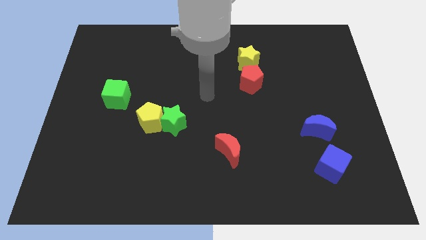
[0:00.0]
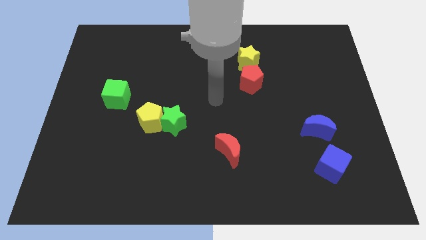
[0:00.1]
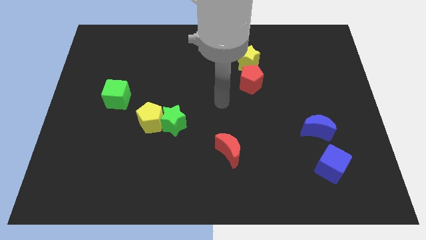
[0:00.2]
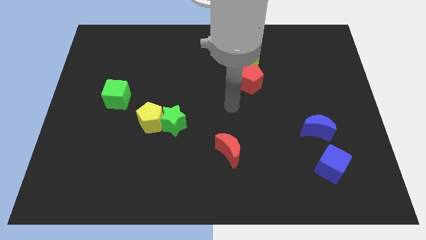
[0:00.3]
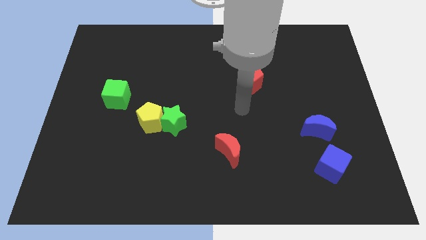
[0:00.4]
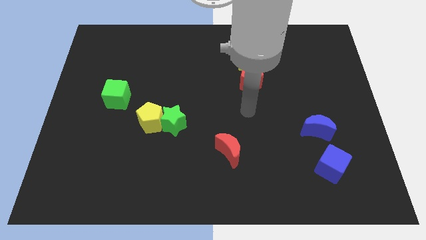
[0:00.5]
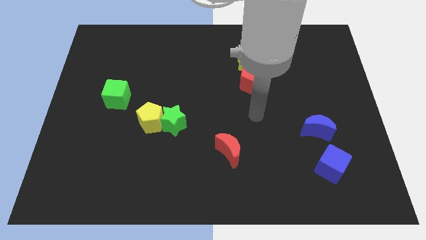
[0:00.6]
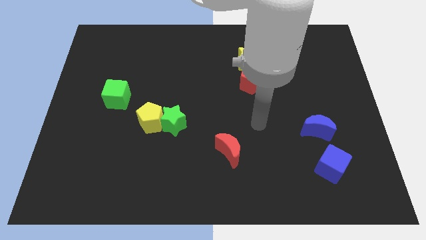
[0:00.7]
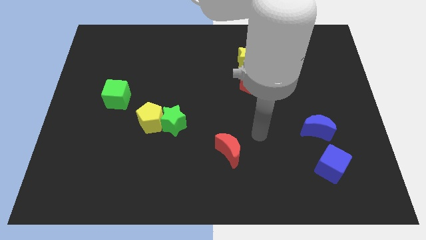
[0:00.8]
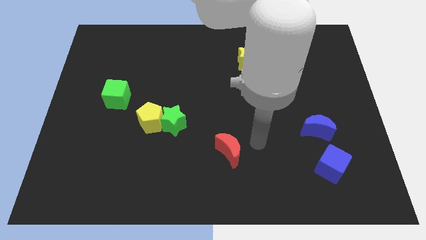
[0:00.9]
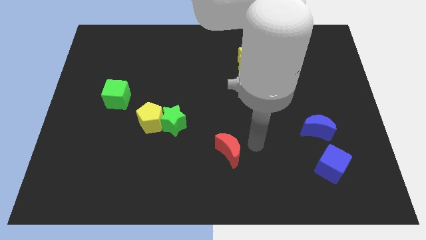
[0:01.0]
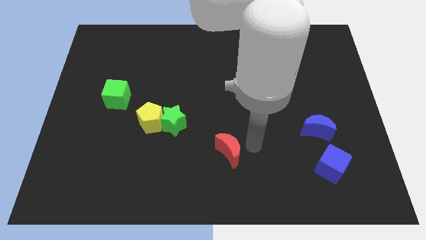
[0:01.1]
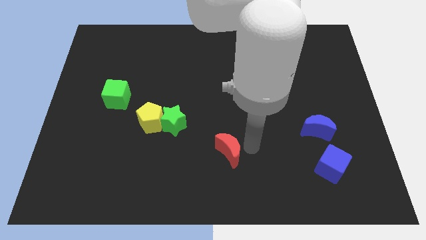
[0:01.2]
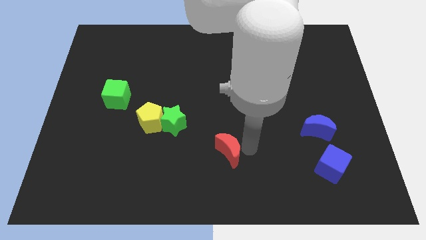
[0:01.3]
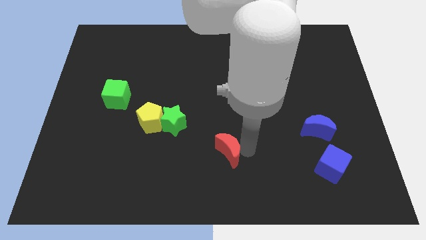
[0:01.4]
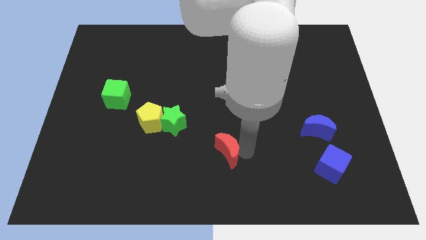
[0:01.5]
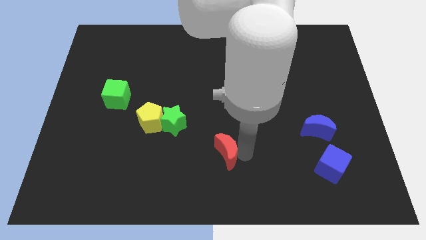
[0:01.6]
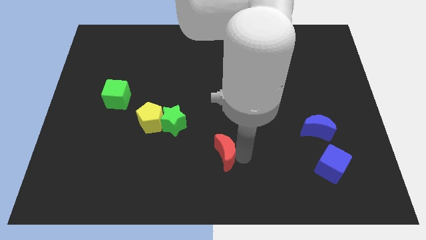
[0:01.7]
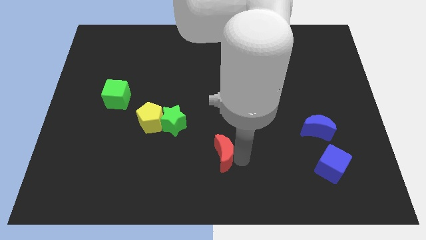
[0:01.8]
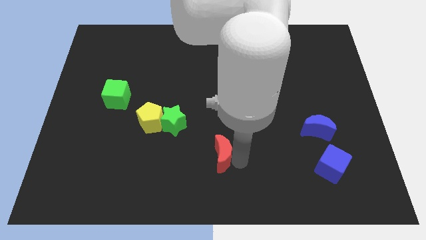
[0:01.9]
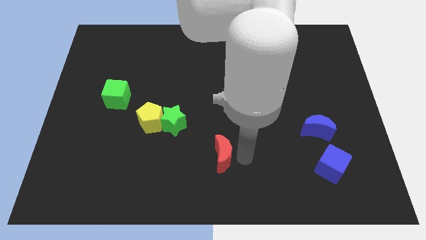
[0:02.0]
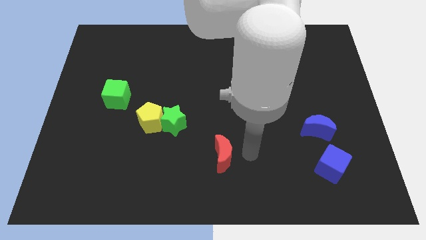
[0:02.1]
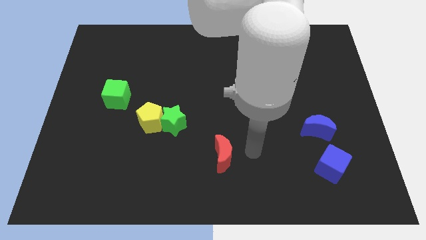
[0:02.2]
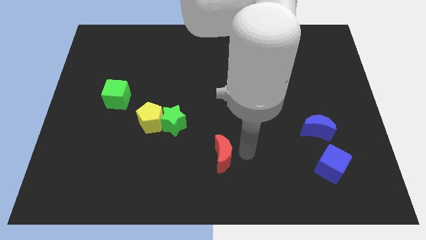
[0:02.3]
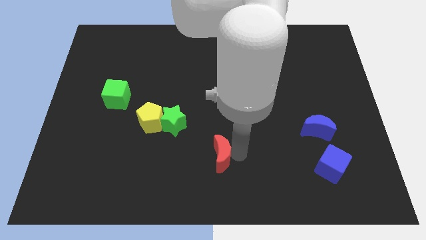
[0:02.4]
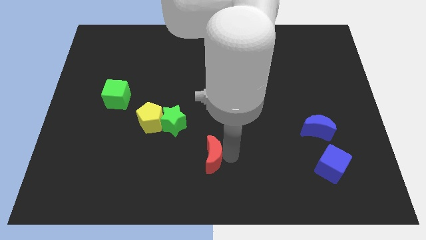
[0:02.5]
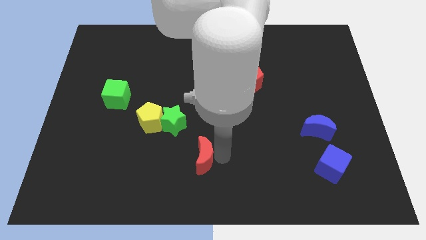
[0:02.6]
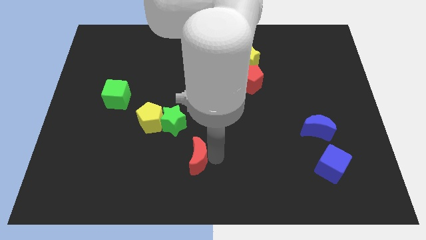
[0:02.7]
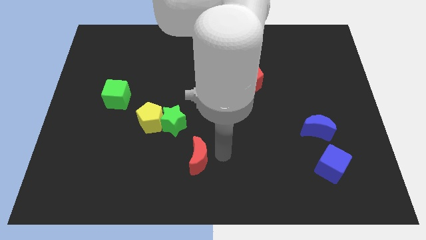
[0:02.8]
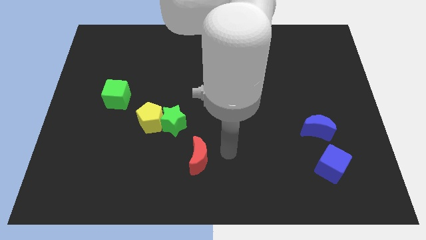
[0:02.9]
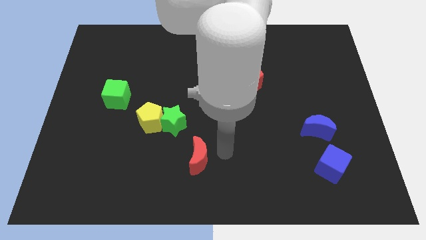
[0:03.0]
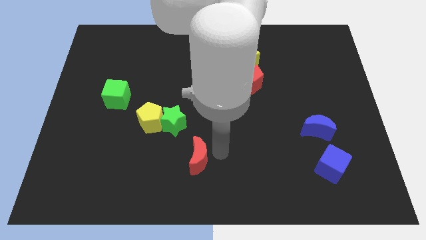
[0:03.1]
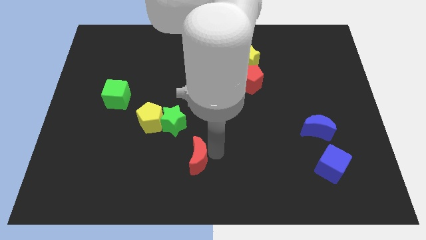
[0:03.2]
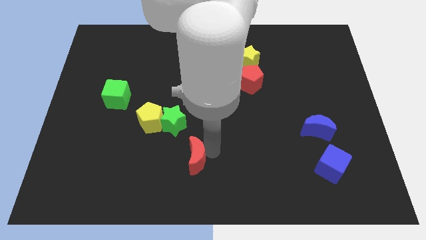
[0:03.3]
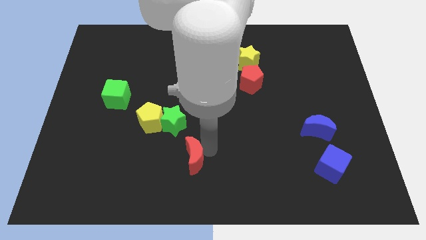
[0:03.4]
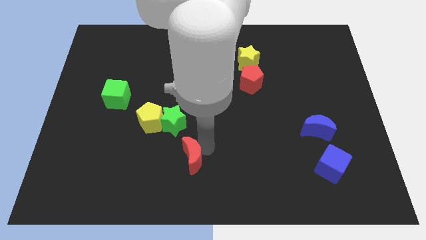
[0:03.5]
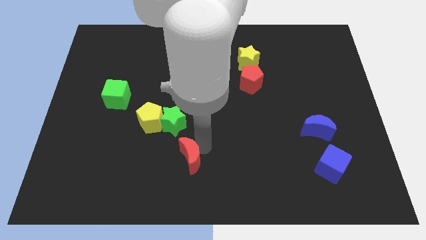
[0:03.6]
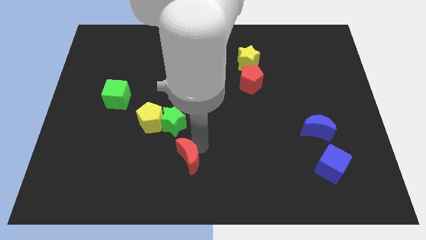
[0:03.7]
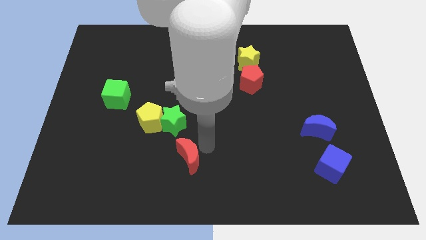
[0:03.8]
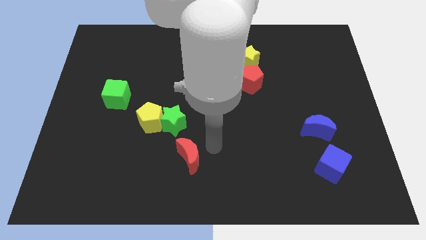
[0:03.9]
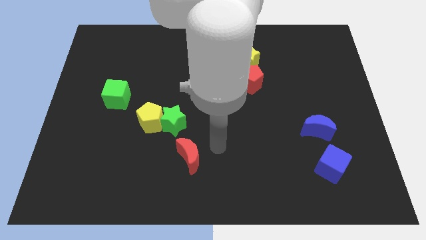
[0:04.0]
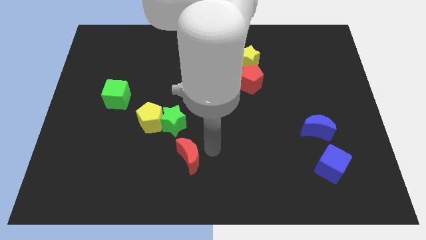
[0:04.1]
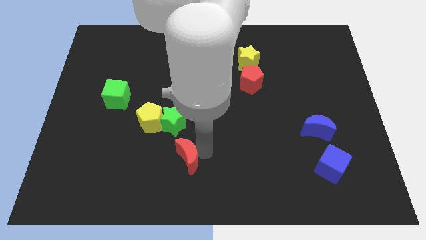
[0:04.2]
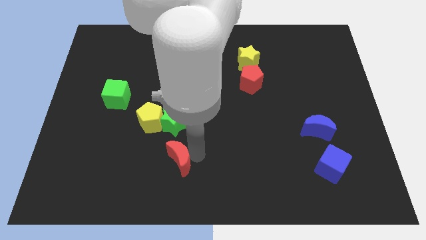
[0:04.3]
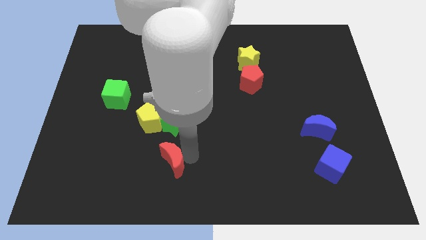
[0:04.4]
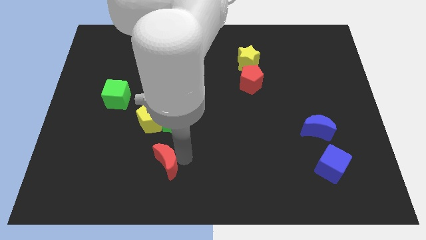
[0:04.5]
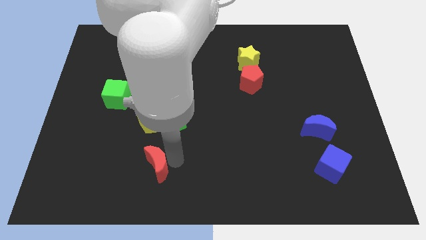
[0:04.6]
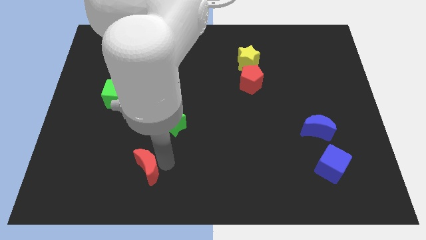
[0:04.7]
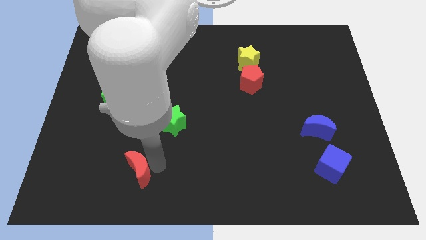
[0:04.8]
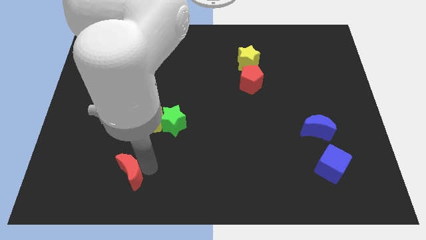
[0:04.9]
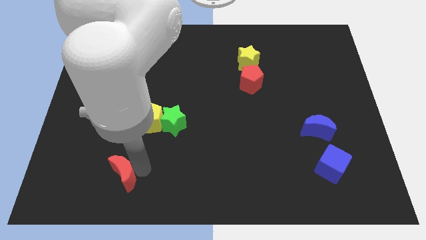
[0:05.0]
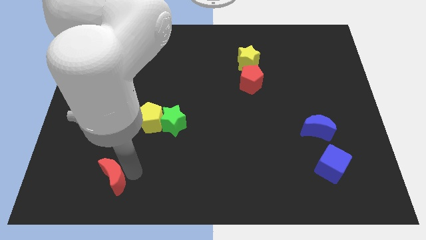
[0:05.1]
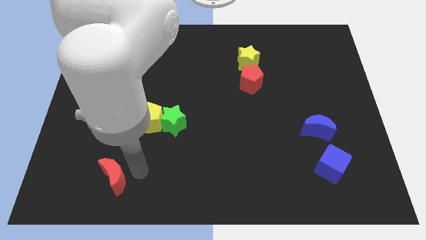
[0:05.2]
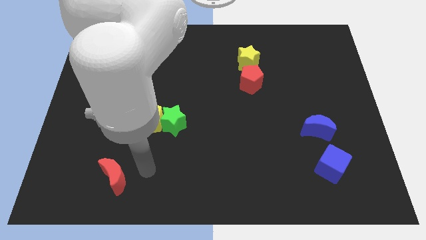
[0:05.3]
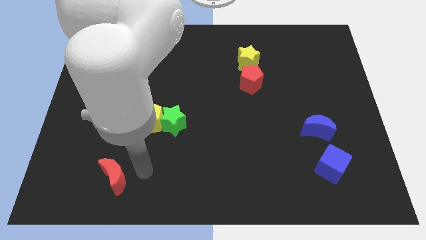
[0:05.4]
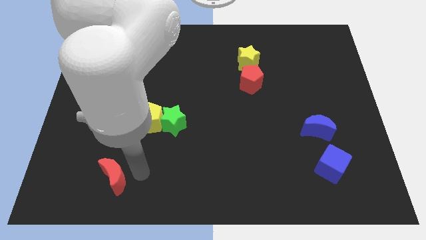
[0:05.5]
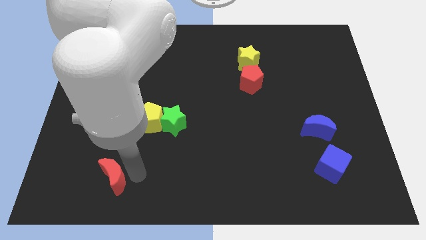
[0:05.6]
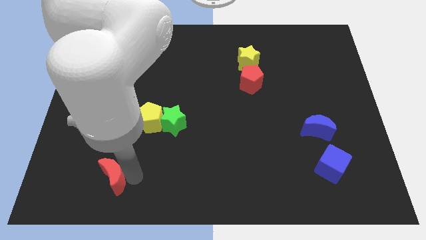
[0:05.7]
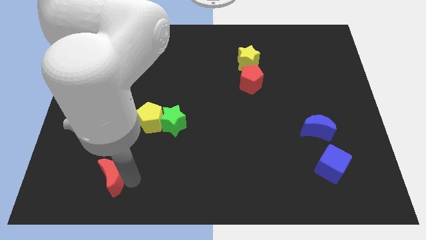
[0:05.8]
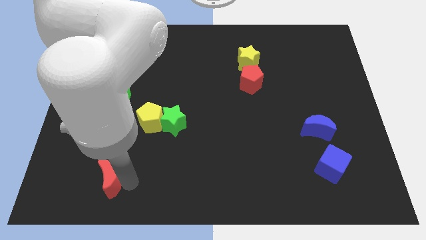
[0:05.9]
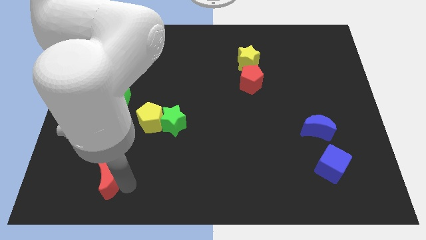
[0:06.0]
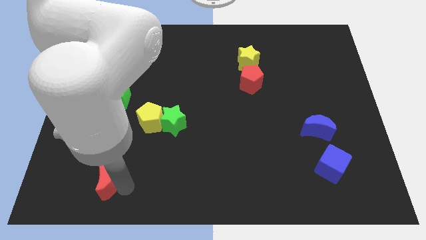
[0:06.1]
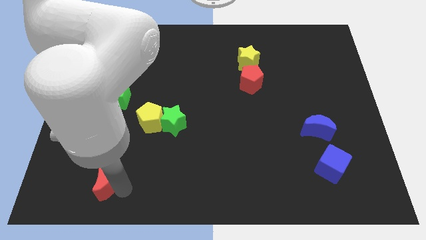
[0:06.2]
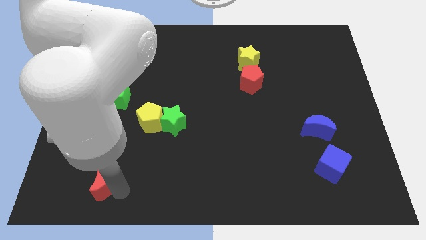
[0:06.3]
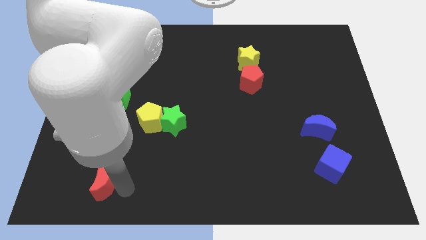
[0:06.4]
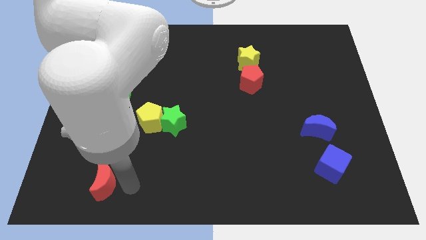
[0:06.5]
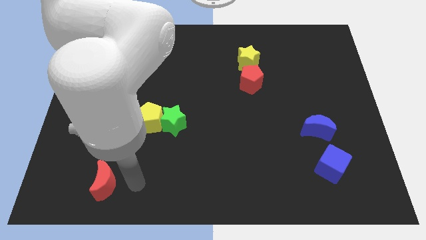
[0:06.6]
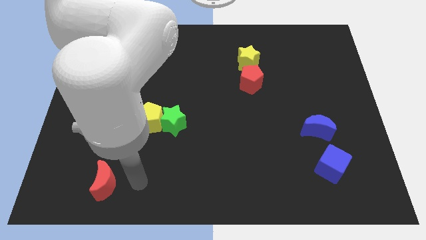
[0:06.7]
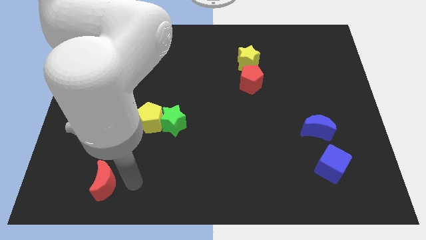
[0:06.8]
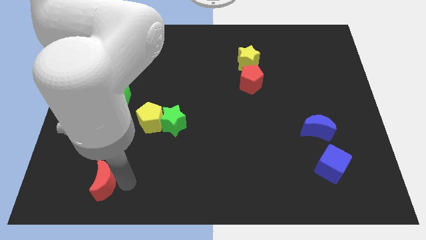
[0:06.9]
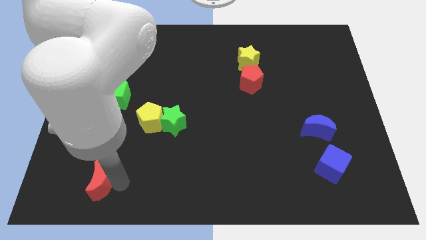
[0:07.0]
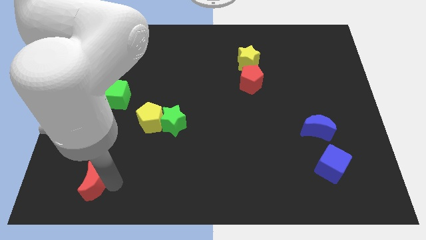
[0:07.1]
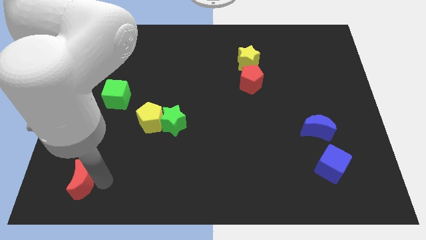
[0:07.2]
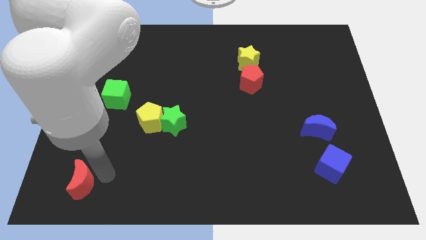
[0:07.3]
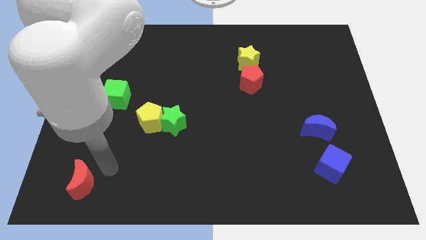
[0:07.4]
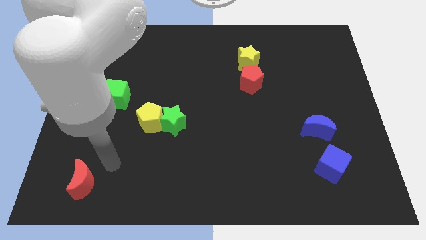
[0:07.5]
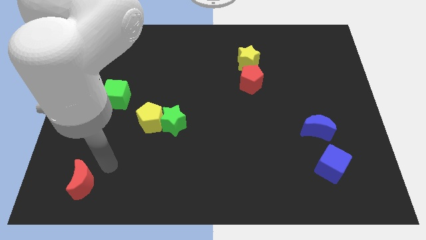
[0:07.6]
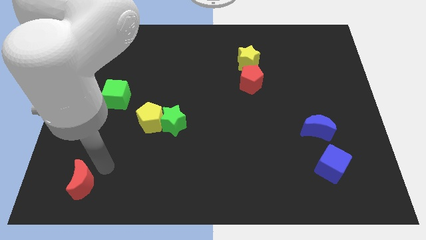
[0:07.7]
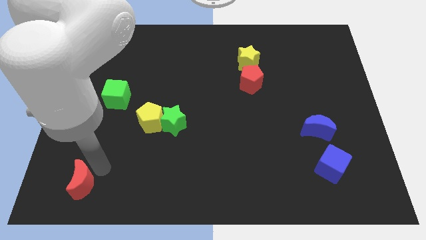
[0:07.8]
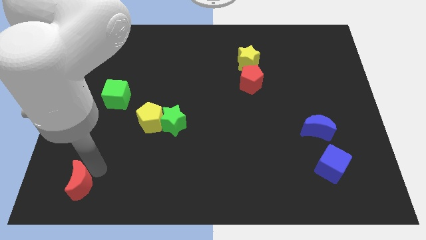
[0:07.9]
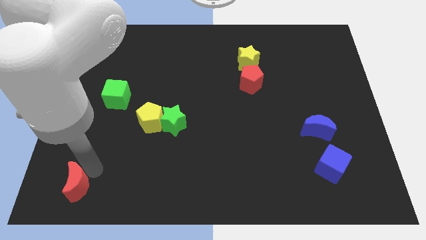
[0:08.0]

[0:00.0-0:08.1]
put the red moon to the bottom left of the board
